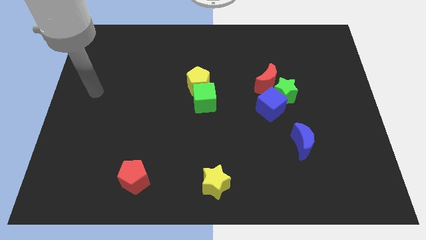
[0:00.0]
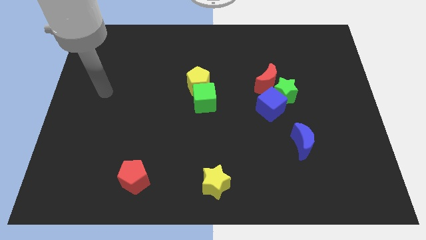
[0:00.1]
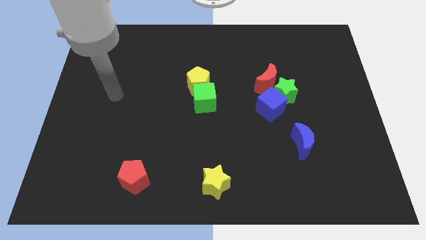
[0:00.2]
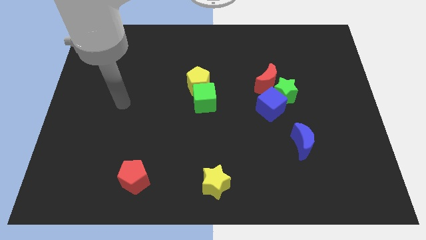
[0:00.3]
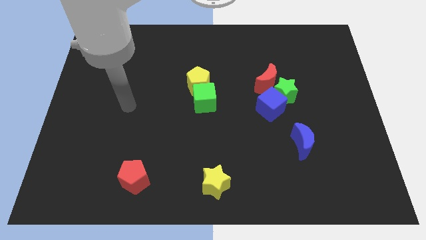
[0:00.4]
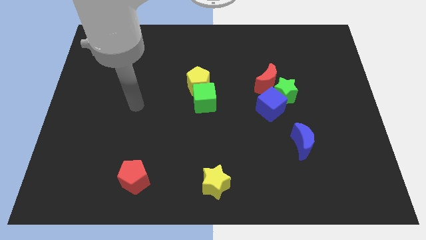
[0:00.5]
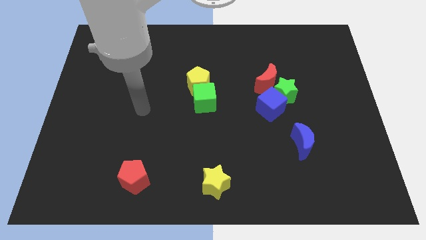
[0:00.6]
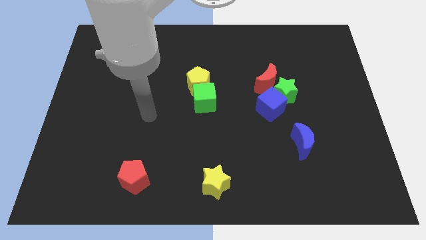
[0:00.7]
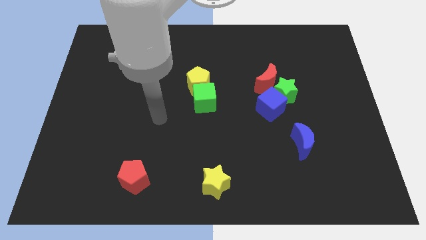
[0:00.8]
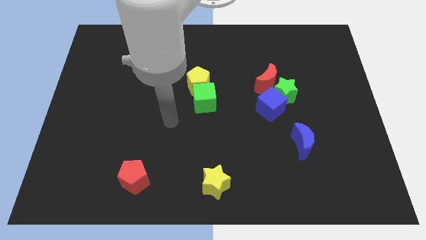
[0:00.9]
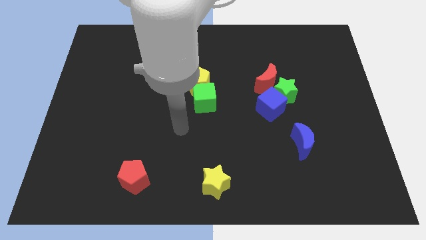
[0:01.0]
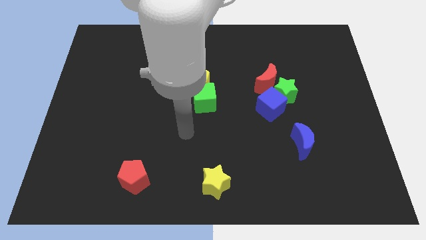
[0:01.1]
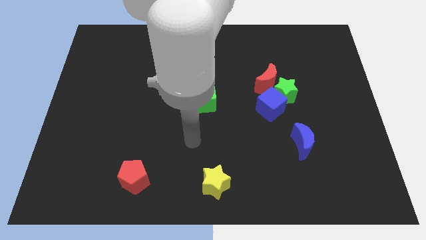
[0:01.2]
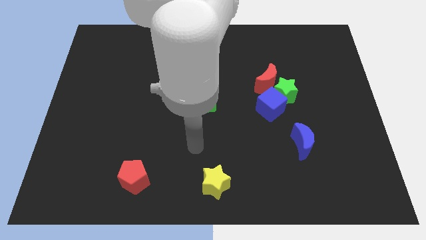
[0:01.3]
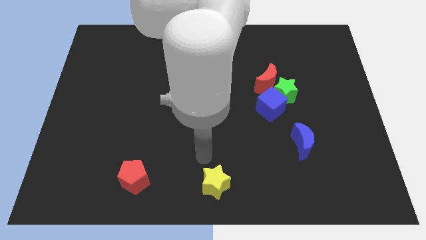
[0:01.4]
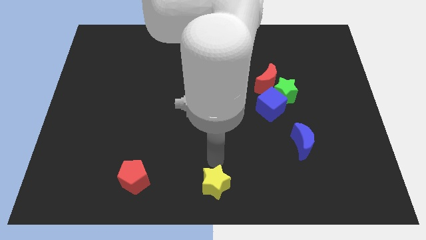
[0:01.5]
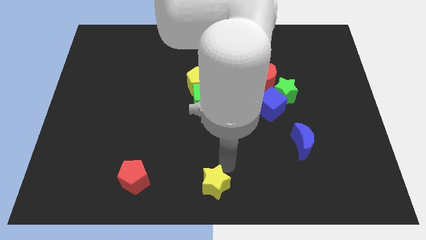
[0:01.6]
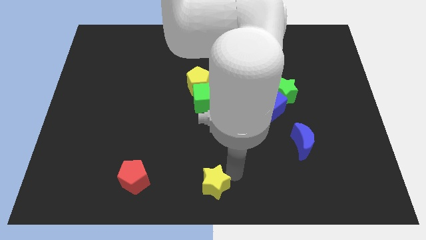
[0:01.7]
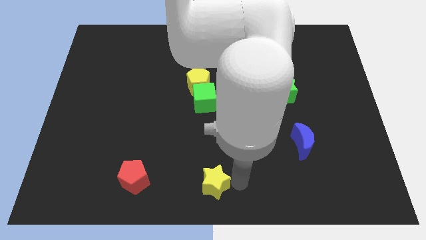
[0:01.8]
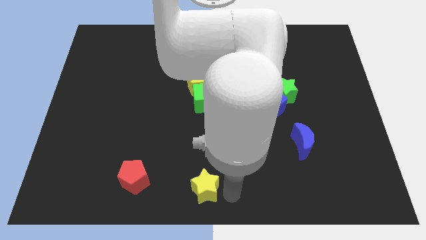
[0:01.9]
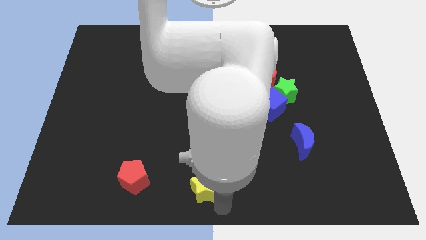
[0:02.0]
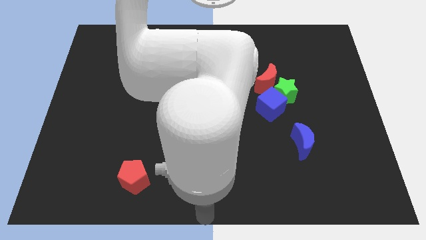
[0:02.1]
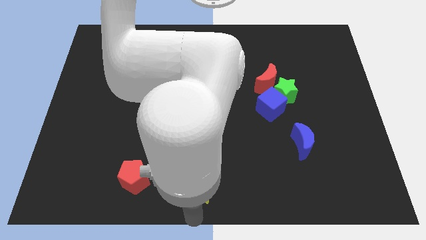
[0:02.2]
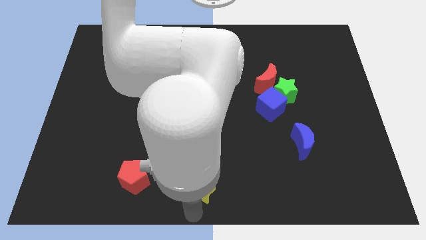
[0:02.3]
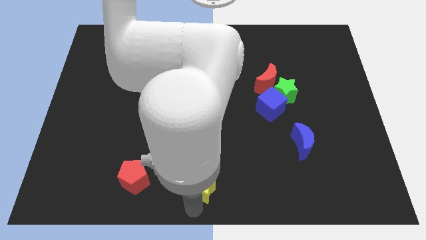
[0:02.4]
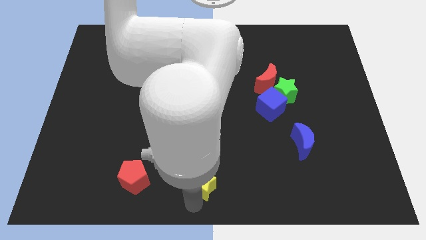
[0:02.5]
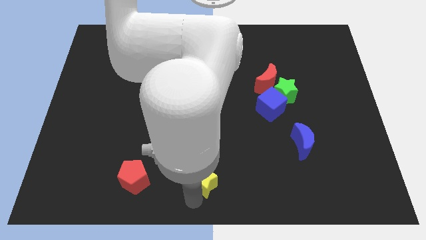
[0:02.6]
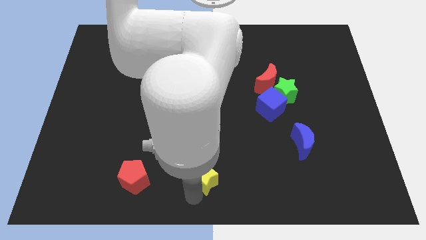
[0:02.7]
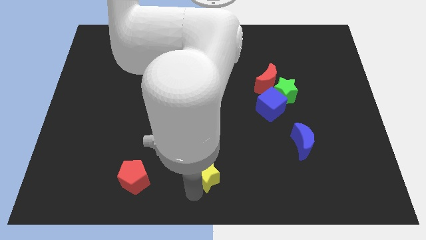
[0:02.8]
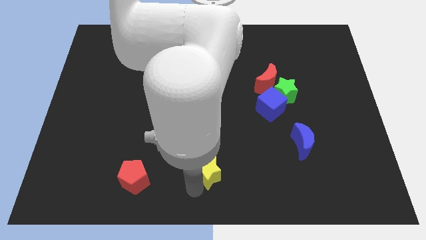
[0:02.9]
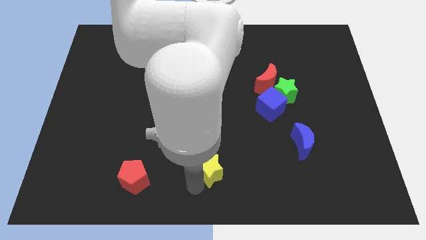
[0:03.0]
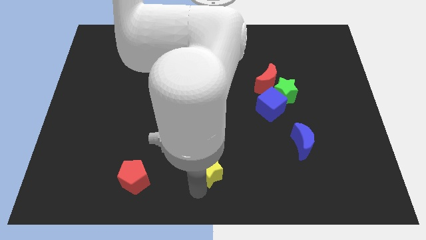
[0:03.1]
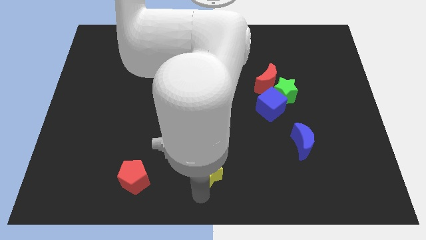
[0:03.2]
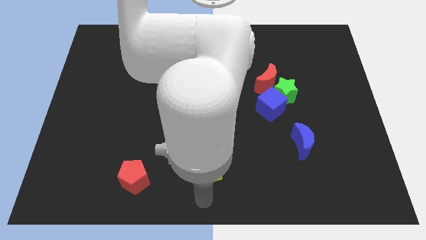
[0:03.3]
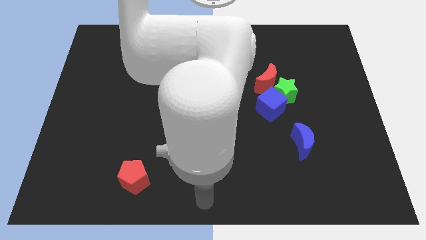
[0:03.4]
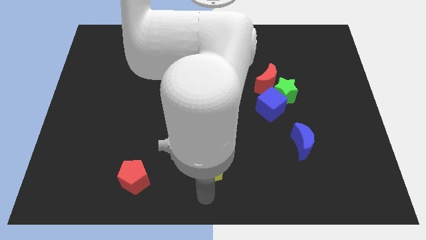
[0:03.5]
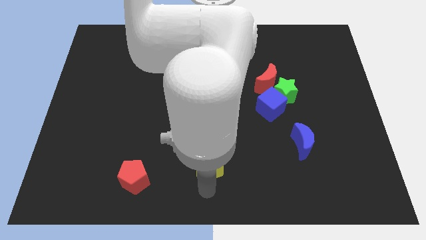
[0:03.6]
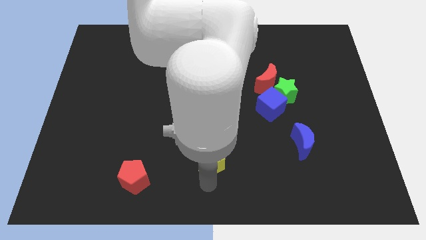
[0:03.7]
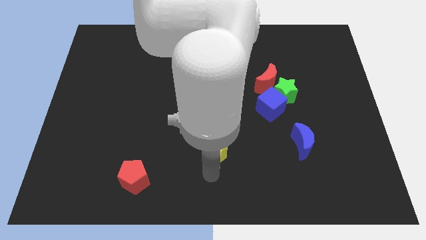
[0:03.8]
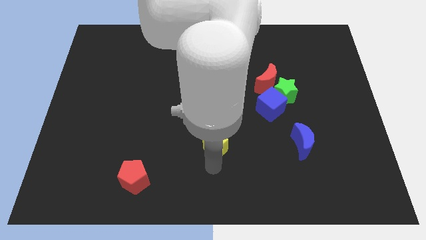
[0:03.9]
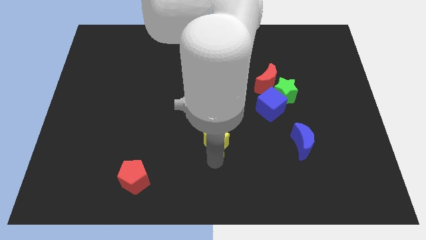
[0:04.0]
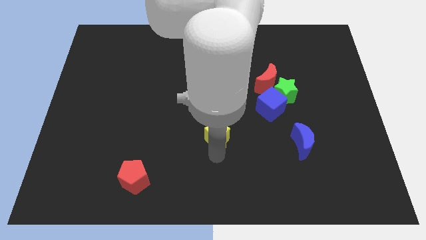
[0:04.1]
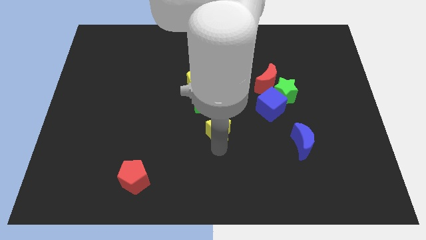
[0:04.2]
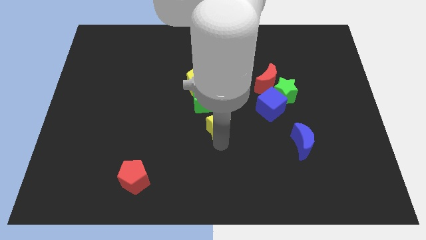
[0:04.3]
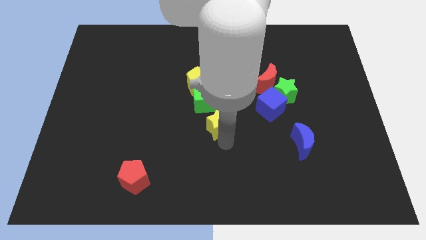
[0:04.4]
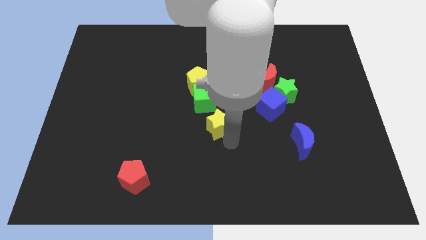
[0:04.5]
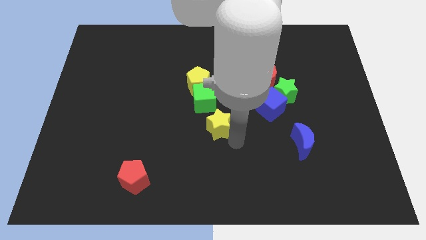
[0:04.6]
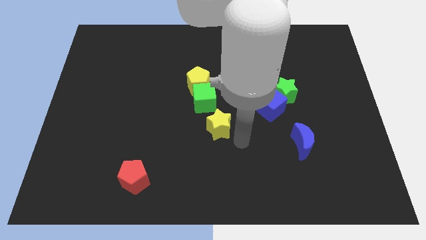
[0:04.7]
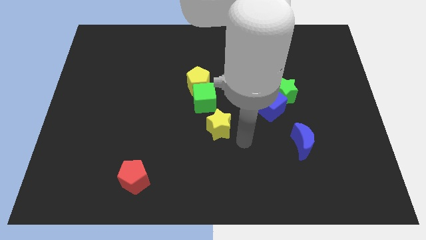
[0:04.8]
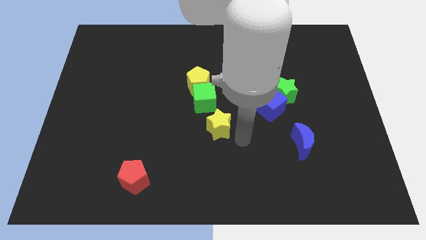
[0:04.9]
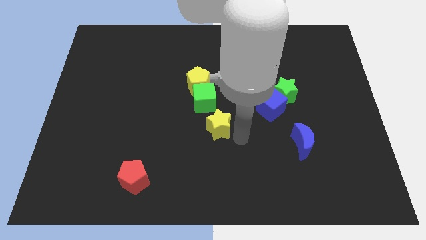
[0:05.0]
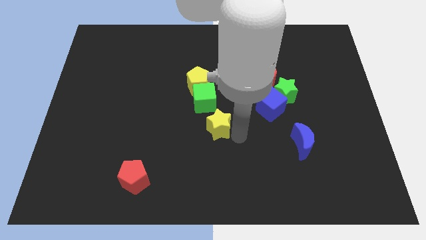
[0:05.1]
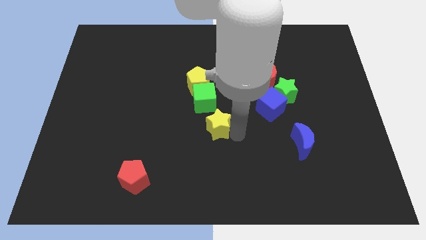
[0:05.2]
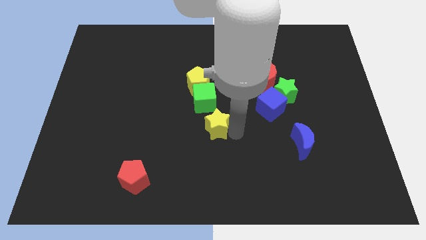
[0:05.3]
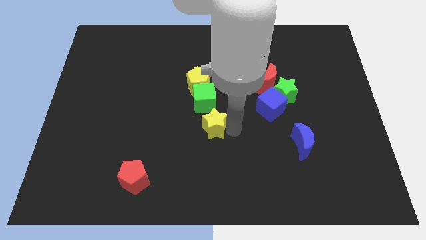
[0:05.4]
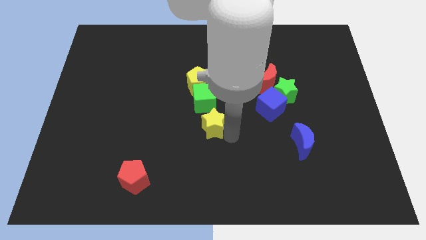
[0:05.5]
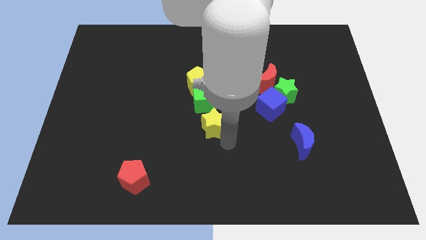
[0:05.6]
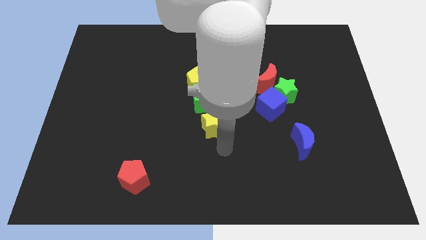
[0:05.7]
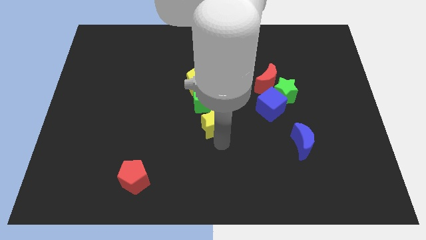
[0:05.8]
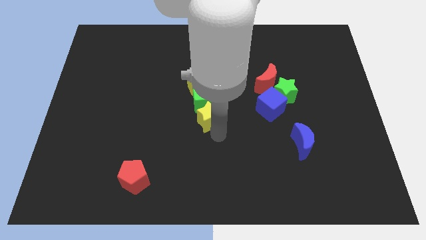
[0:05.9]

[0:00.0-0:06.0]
slide the yellow star next to the green cube
